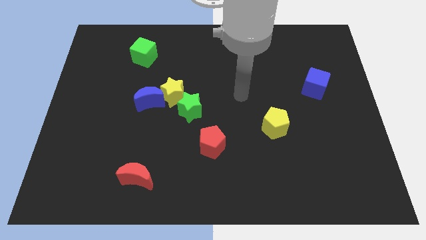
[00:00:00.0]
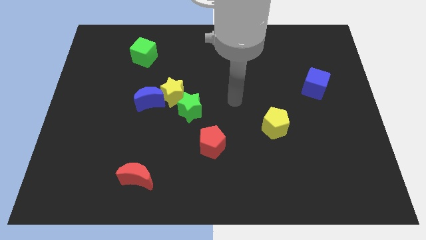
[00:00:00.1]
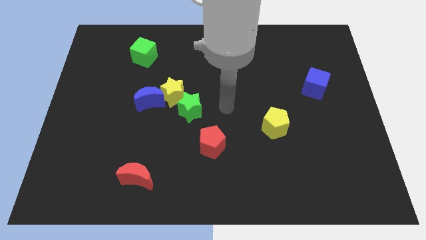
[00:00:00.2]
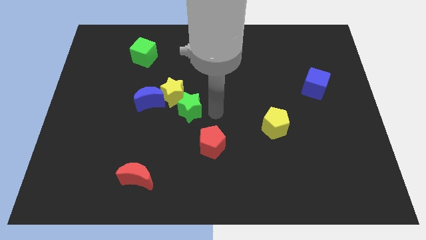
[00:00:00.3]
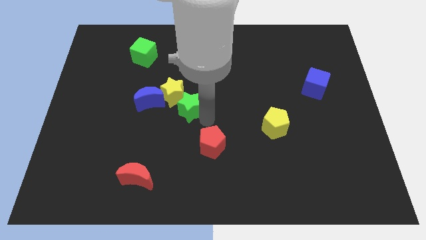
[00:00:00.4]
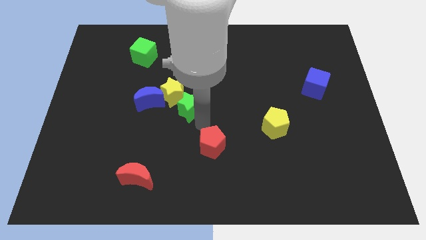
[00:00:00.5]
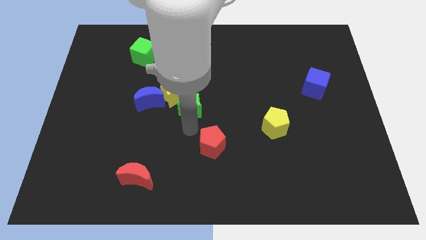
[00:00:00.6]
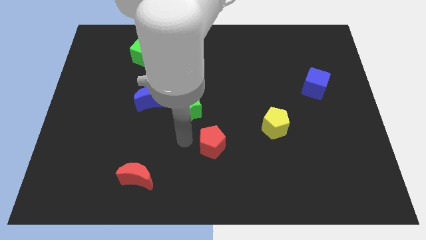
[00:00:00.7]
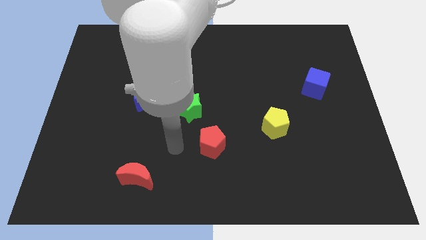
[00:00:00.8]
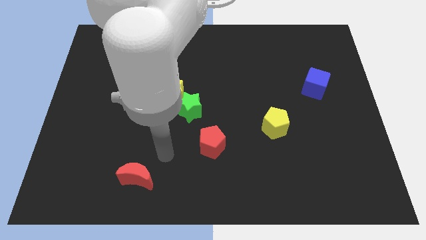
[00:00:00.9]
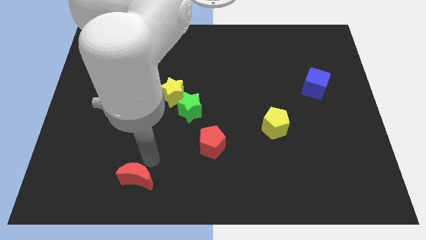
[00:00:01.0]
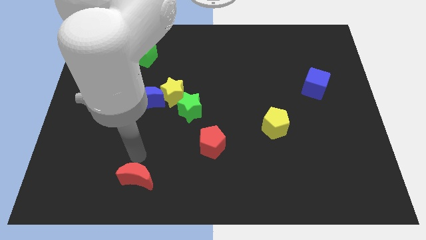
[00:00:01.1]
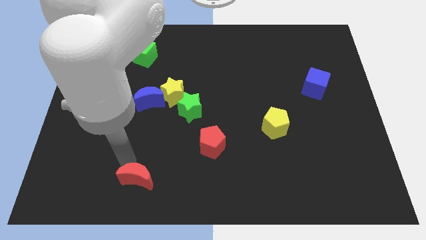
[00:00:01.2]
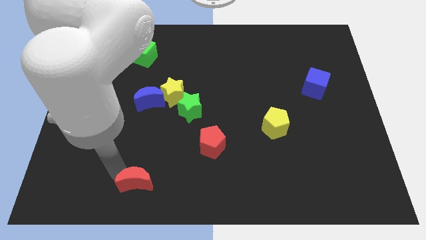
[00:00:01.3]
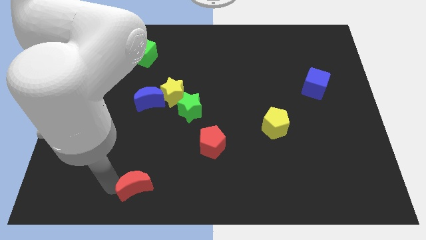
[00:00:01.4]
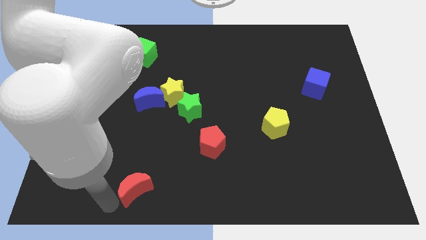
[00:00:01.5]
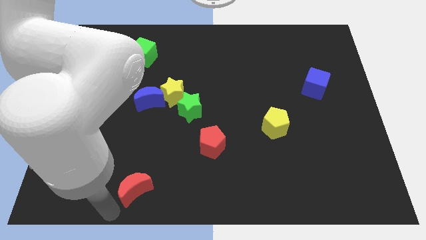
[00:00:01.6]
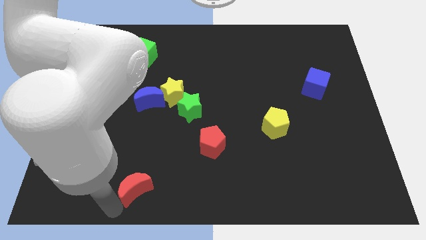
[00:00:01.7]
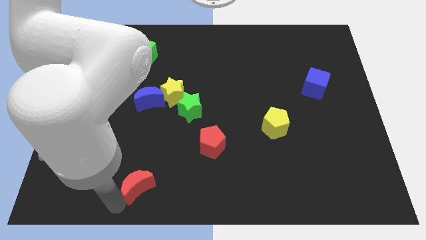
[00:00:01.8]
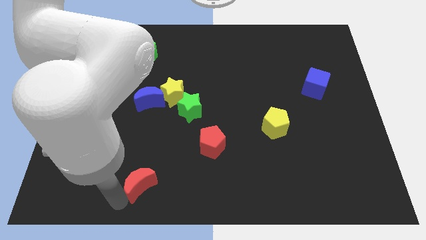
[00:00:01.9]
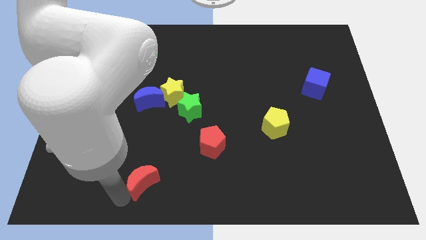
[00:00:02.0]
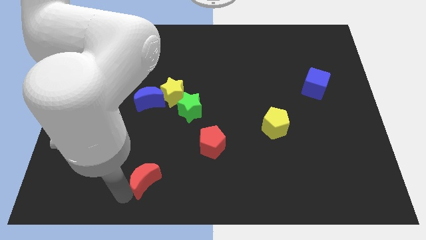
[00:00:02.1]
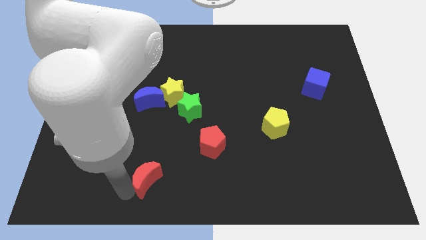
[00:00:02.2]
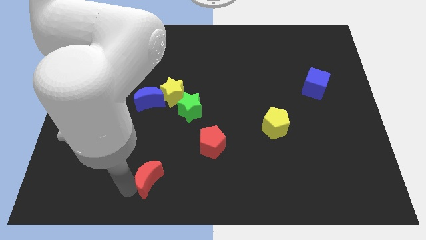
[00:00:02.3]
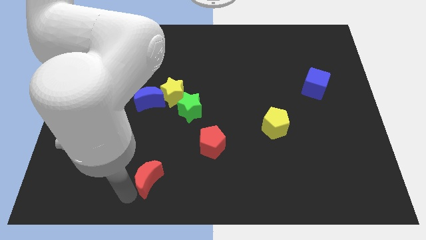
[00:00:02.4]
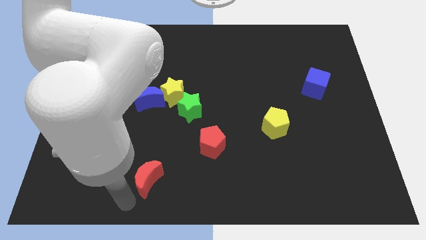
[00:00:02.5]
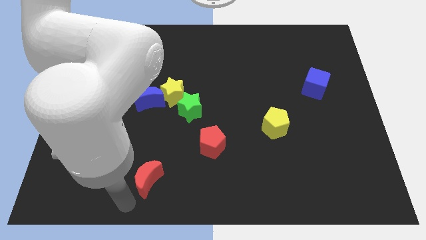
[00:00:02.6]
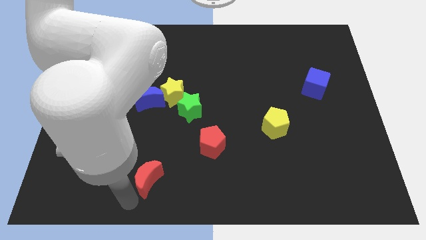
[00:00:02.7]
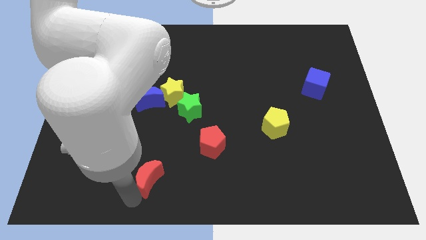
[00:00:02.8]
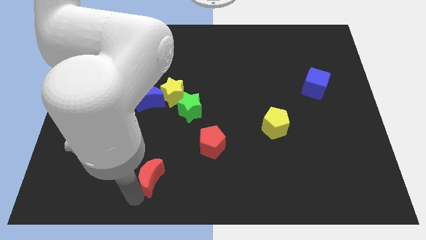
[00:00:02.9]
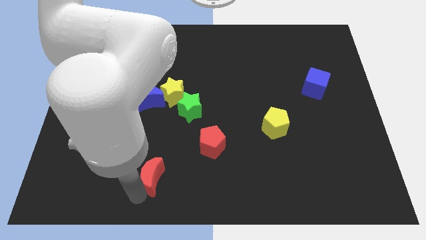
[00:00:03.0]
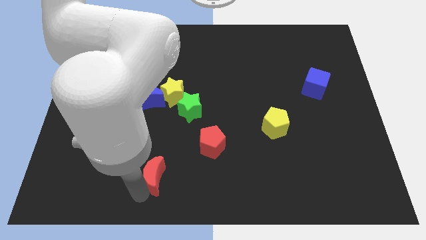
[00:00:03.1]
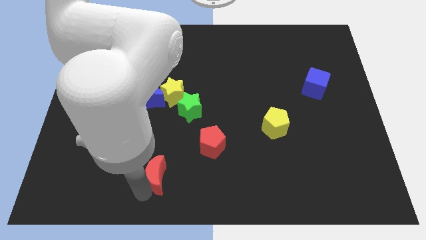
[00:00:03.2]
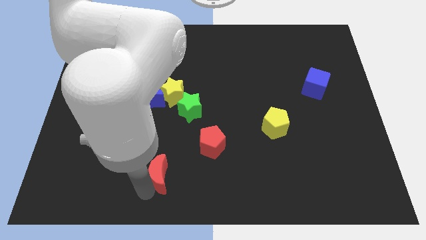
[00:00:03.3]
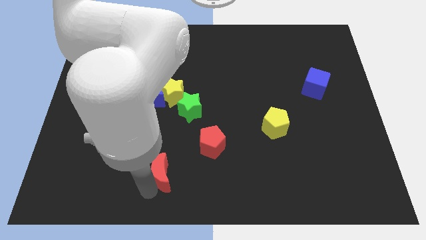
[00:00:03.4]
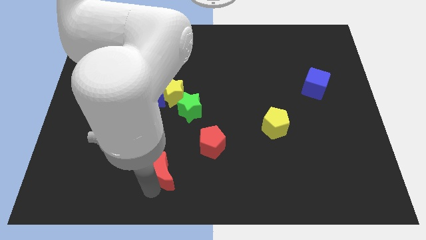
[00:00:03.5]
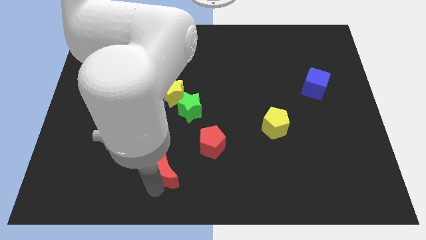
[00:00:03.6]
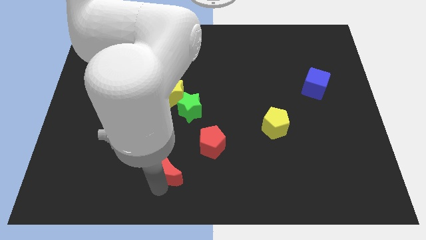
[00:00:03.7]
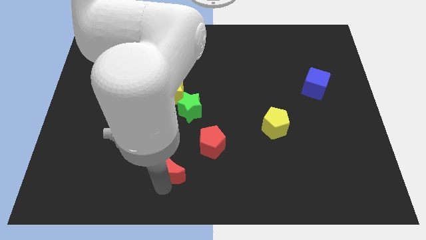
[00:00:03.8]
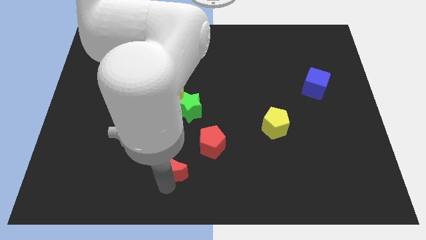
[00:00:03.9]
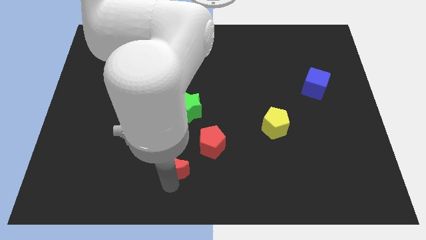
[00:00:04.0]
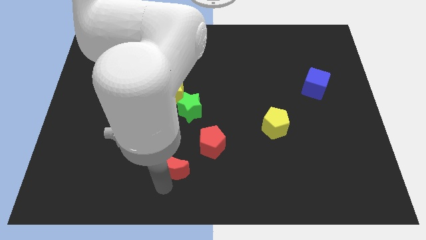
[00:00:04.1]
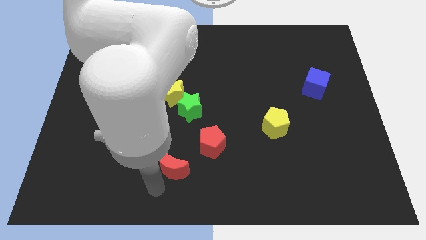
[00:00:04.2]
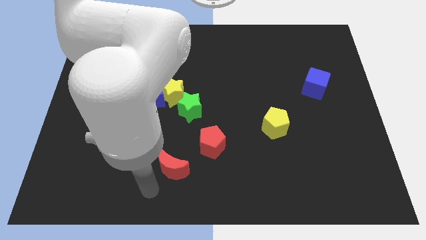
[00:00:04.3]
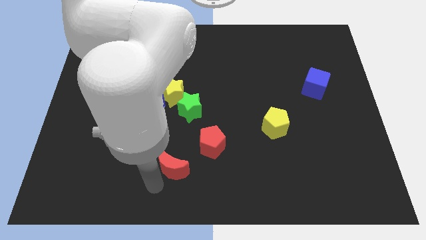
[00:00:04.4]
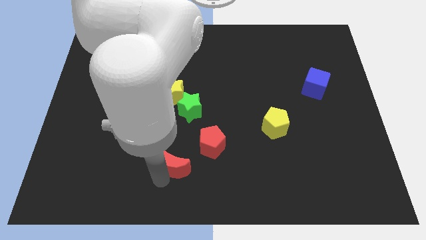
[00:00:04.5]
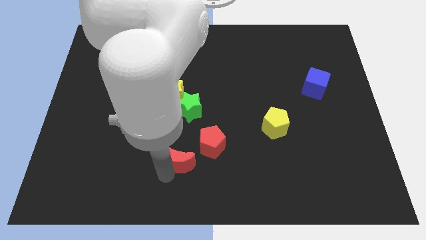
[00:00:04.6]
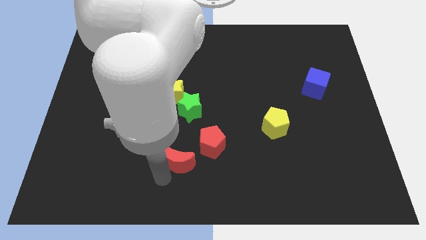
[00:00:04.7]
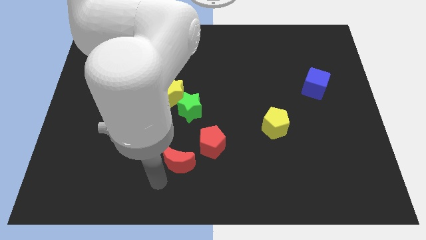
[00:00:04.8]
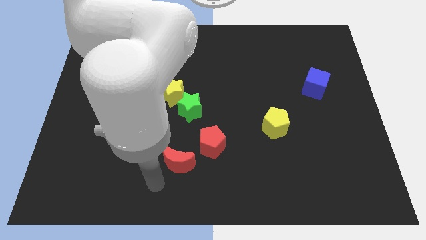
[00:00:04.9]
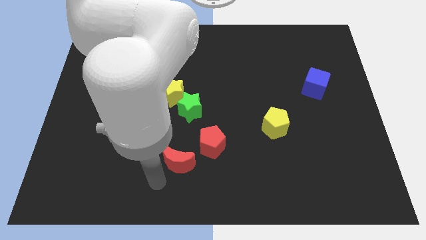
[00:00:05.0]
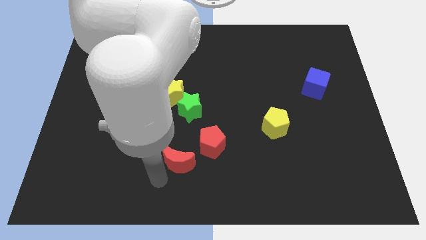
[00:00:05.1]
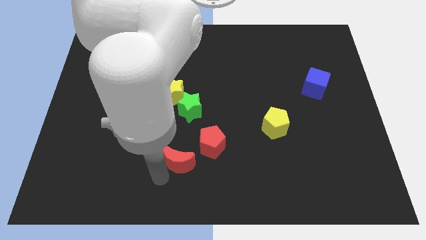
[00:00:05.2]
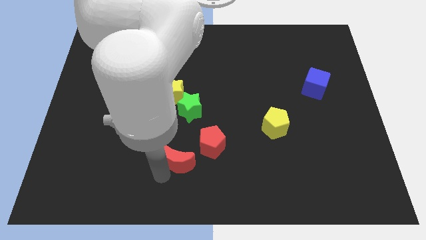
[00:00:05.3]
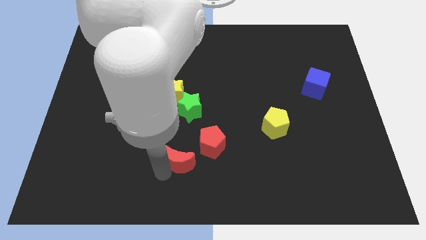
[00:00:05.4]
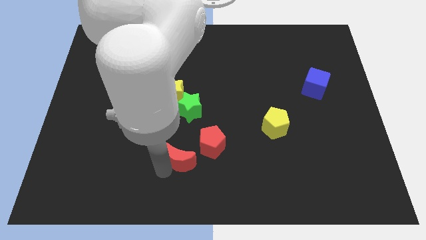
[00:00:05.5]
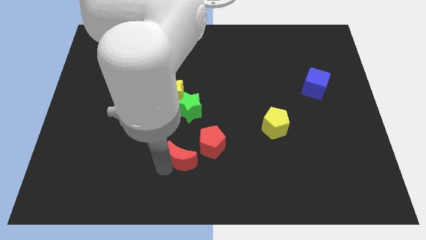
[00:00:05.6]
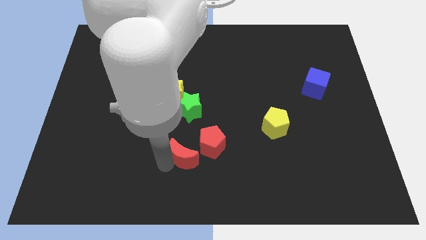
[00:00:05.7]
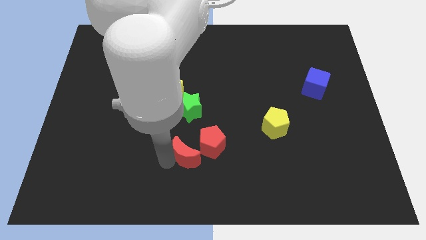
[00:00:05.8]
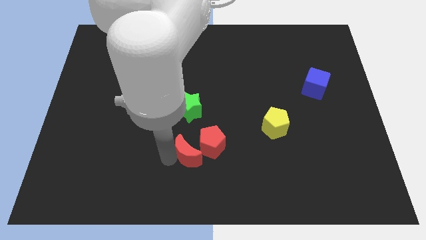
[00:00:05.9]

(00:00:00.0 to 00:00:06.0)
slide the red moon to the red pentagon
